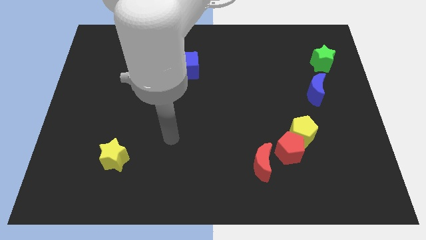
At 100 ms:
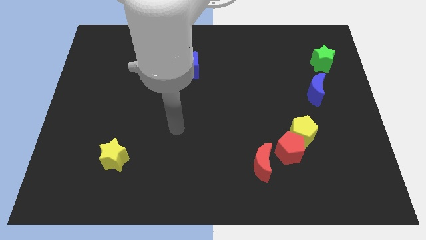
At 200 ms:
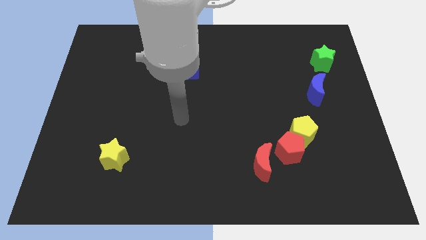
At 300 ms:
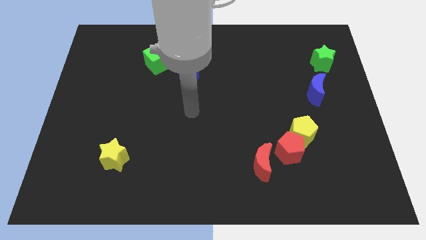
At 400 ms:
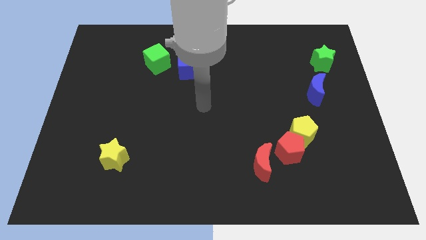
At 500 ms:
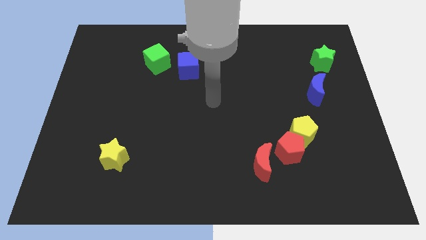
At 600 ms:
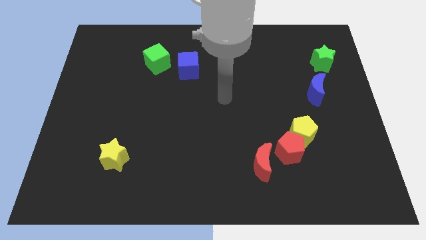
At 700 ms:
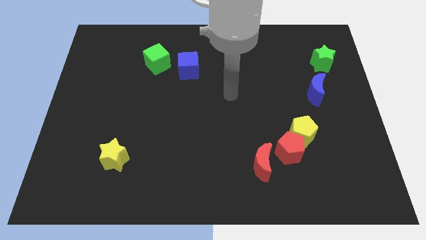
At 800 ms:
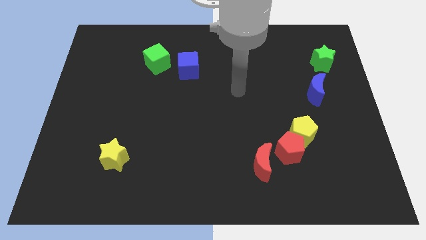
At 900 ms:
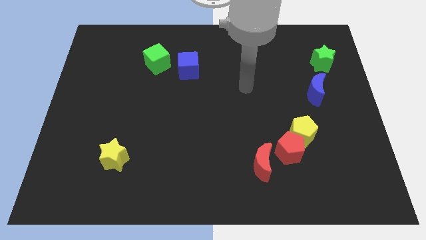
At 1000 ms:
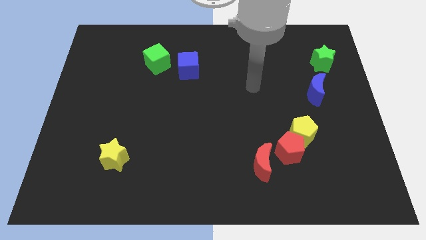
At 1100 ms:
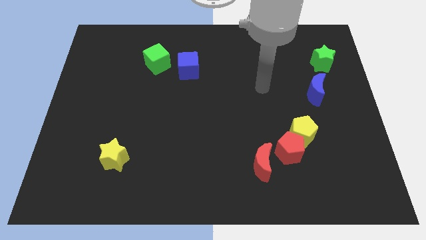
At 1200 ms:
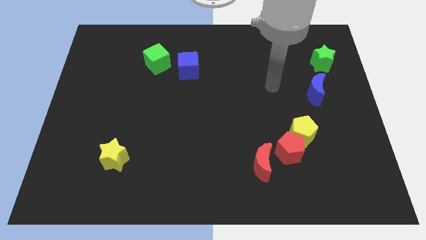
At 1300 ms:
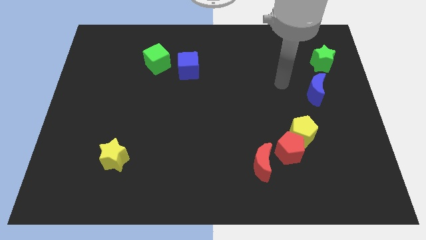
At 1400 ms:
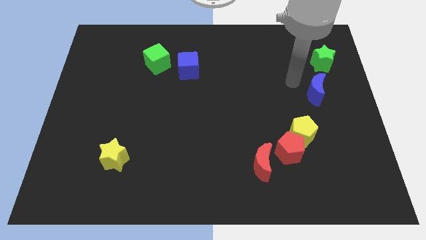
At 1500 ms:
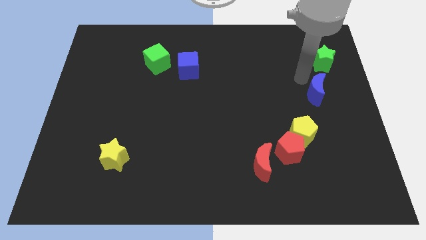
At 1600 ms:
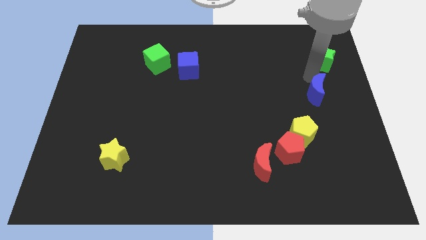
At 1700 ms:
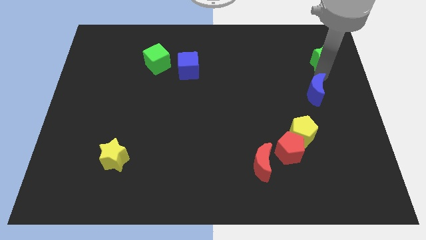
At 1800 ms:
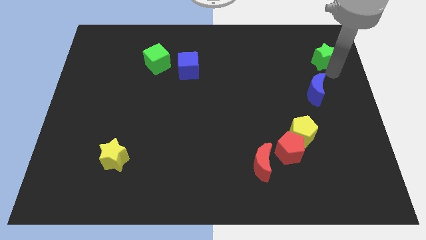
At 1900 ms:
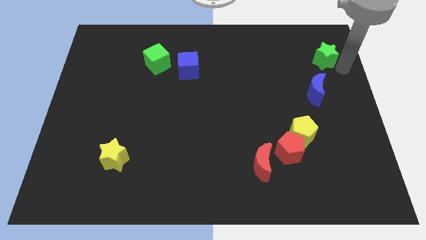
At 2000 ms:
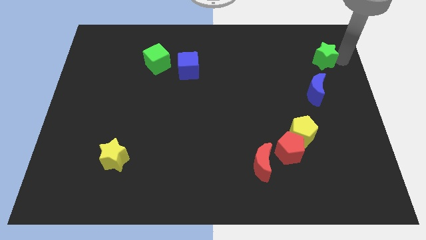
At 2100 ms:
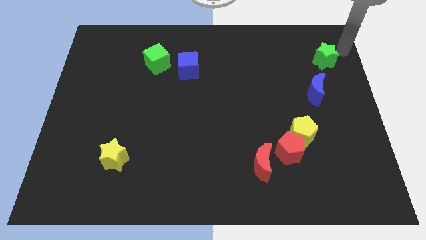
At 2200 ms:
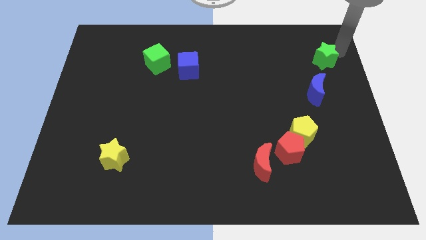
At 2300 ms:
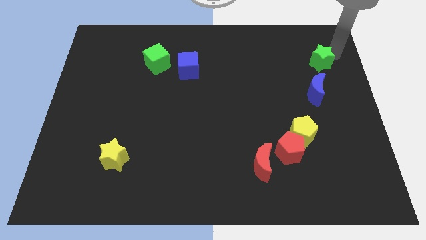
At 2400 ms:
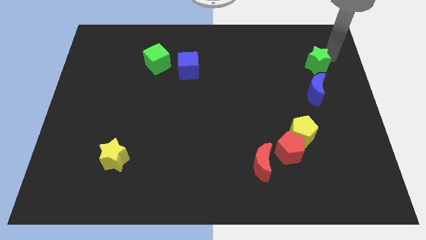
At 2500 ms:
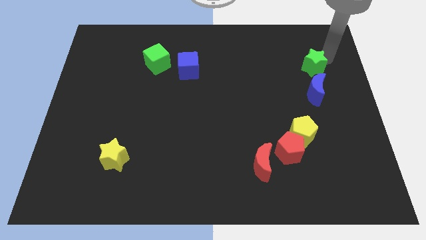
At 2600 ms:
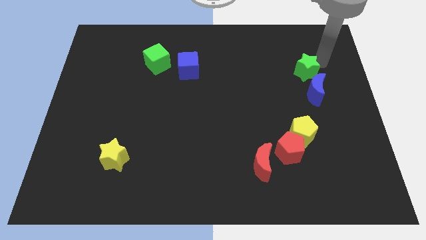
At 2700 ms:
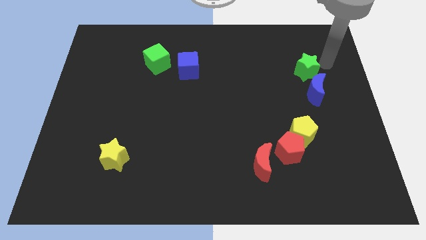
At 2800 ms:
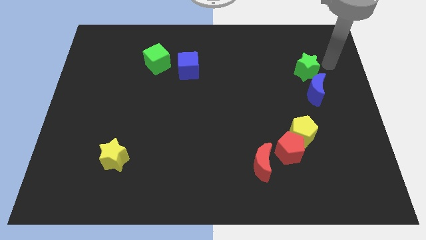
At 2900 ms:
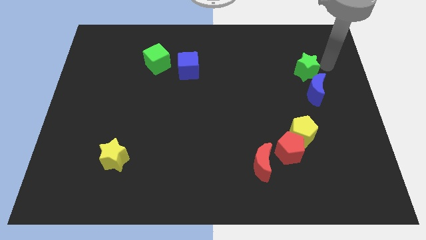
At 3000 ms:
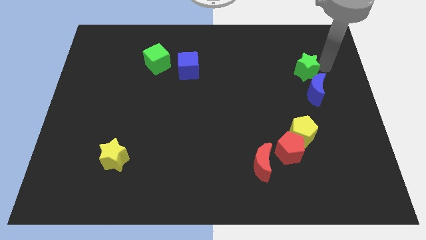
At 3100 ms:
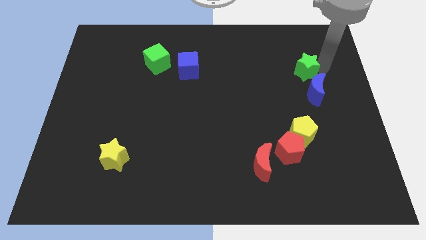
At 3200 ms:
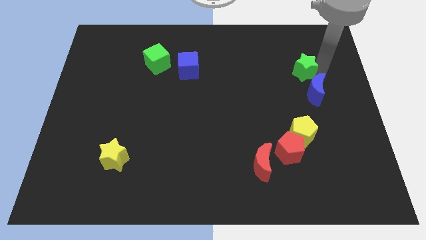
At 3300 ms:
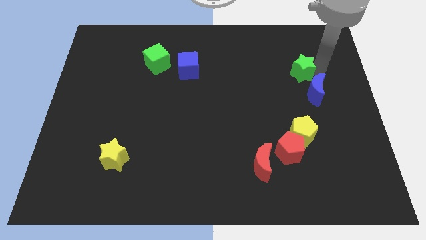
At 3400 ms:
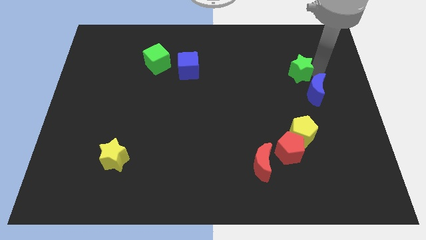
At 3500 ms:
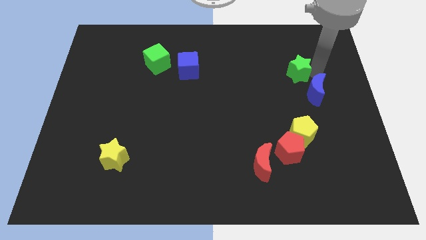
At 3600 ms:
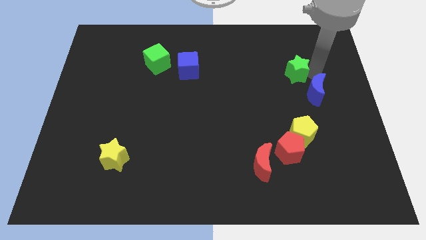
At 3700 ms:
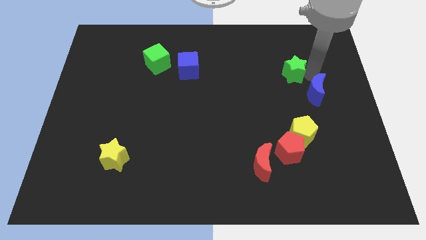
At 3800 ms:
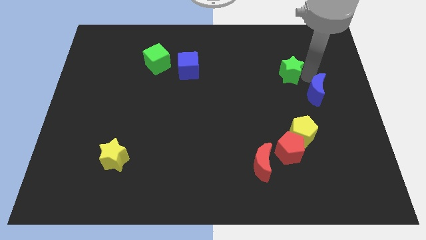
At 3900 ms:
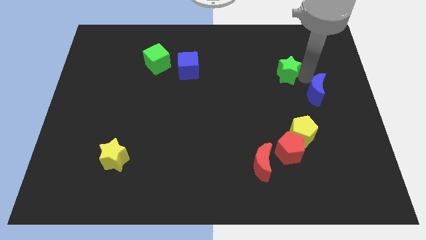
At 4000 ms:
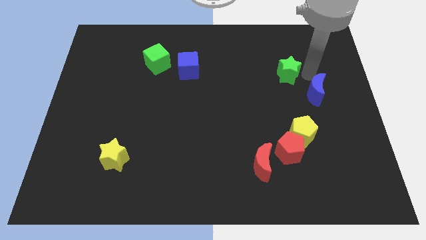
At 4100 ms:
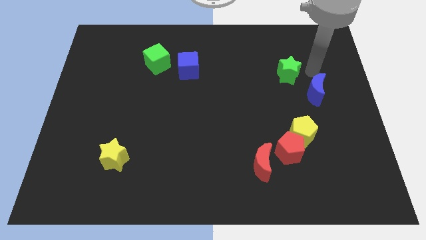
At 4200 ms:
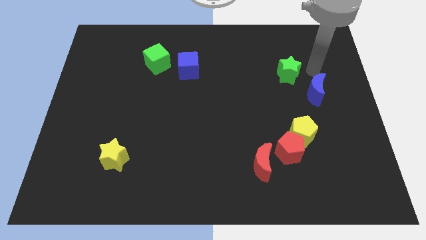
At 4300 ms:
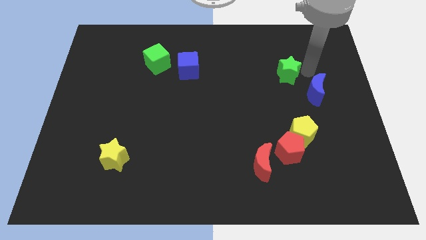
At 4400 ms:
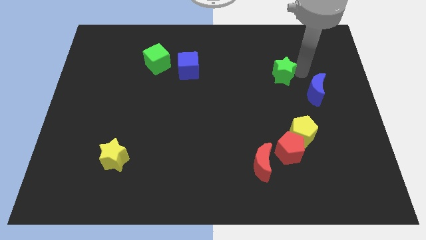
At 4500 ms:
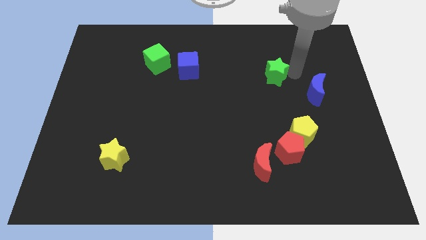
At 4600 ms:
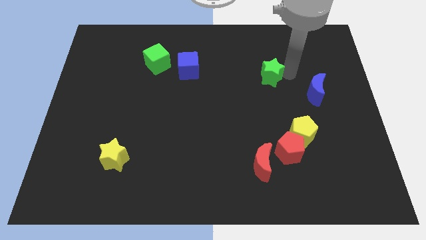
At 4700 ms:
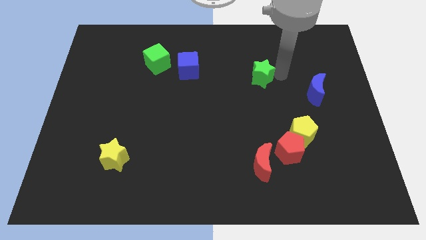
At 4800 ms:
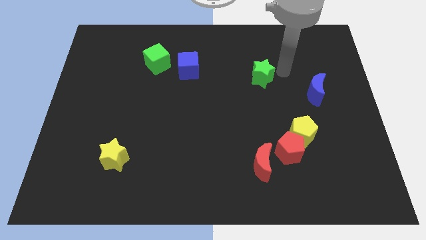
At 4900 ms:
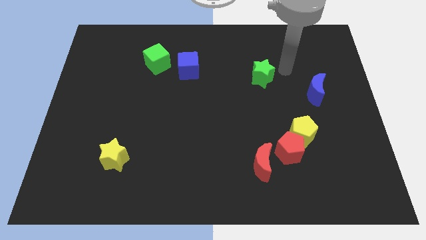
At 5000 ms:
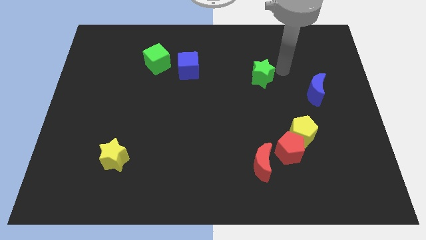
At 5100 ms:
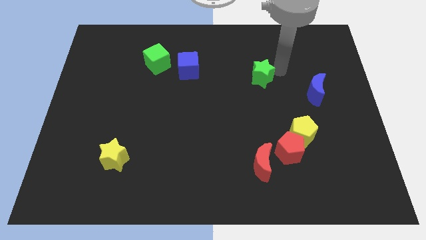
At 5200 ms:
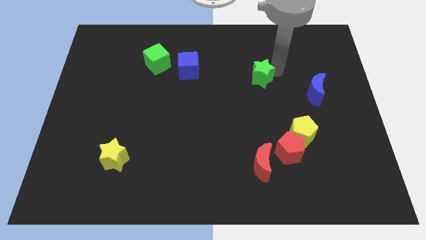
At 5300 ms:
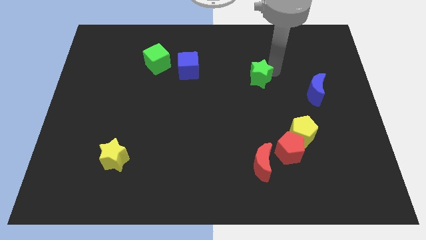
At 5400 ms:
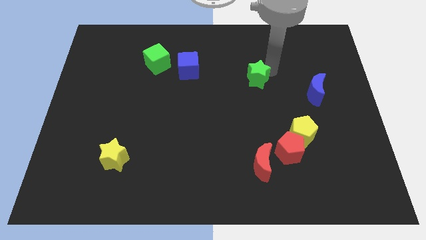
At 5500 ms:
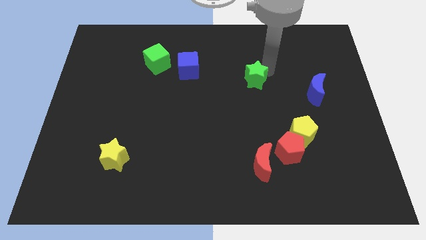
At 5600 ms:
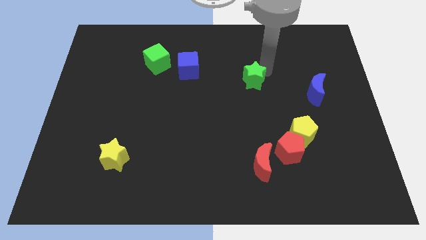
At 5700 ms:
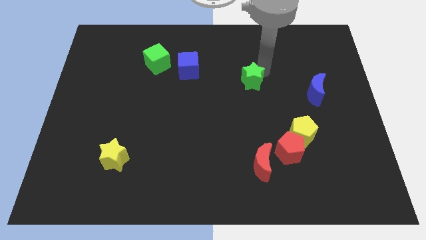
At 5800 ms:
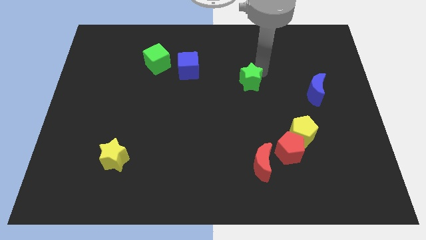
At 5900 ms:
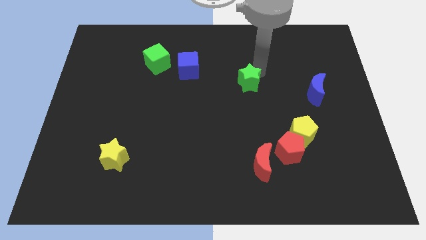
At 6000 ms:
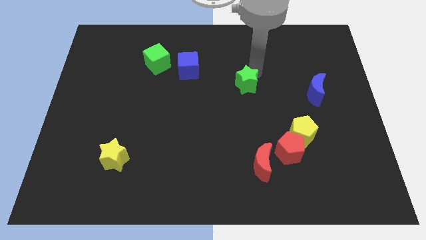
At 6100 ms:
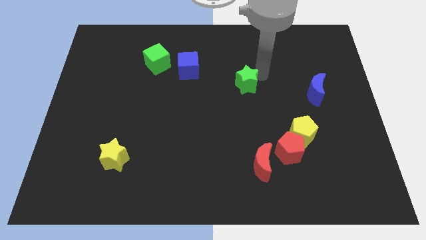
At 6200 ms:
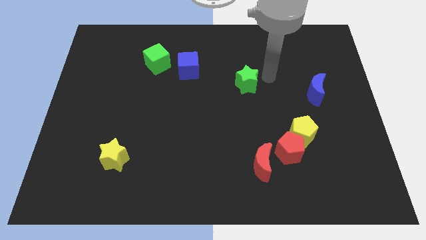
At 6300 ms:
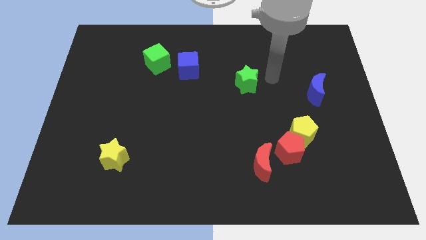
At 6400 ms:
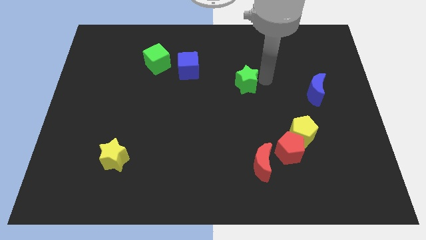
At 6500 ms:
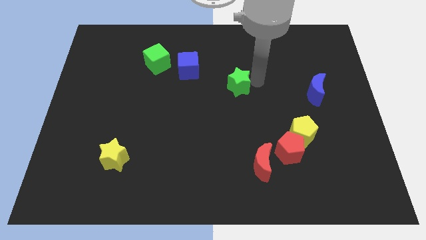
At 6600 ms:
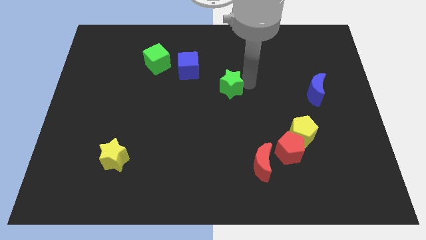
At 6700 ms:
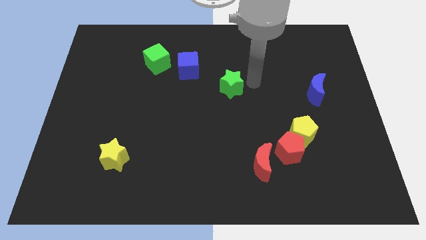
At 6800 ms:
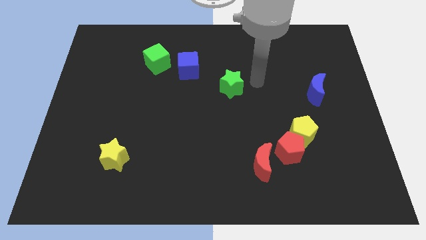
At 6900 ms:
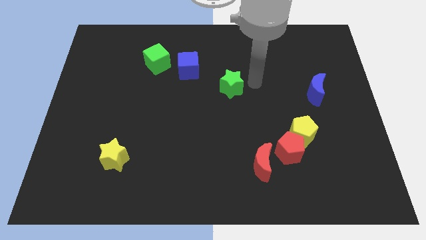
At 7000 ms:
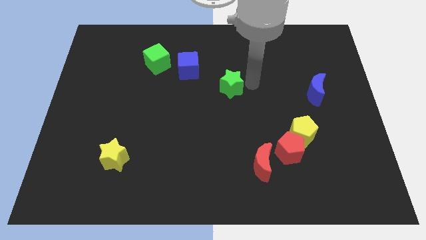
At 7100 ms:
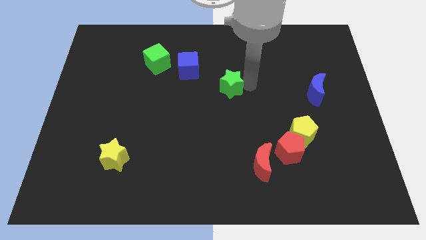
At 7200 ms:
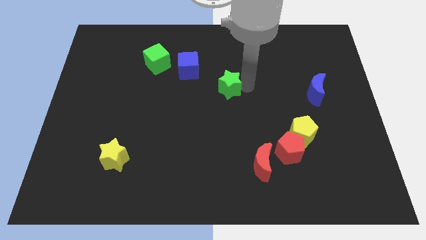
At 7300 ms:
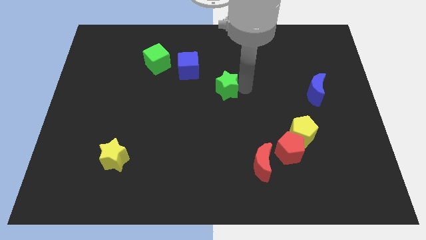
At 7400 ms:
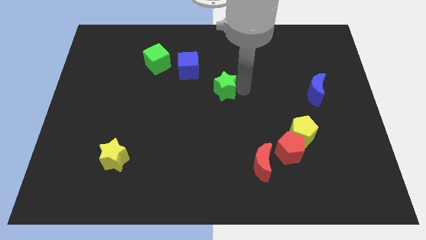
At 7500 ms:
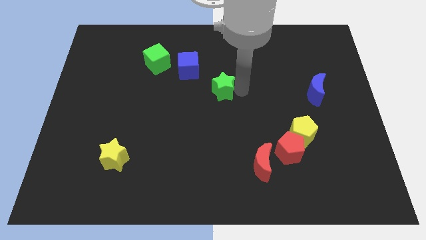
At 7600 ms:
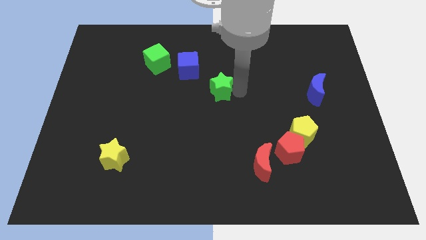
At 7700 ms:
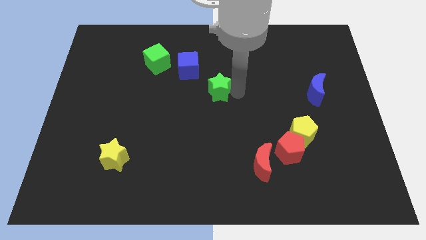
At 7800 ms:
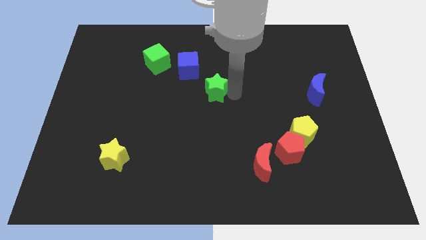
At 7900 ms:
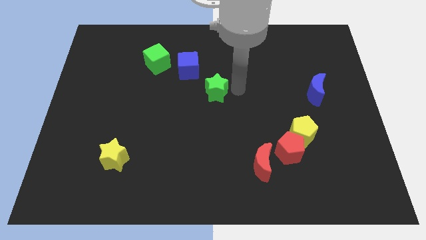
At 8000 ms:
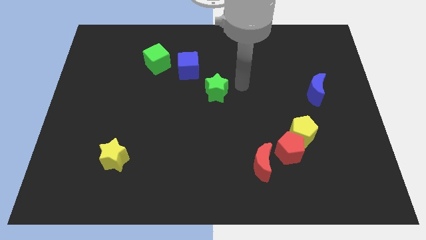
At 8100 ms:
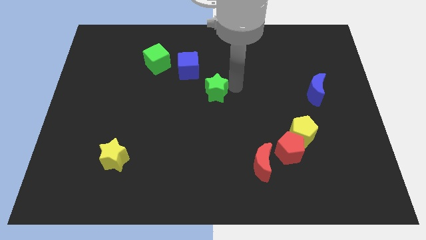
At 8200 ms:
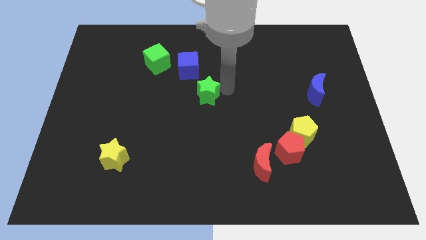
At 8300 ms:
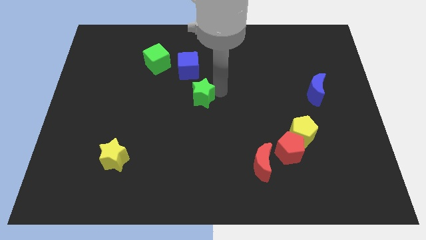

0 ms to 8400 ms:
push the green star to the bottom side of the blue cube
